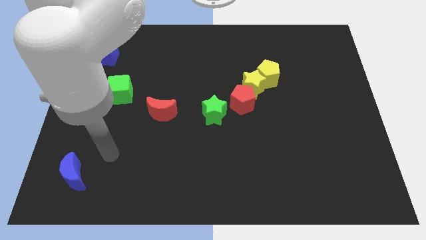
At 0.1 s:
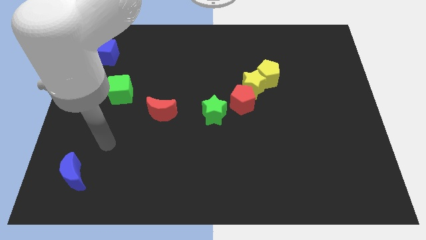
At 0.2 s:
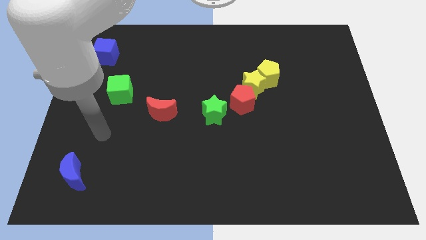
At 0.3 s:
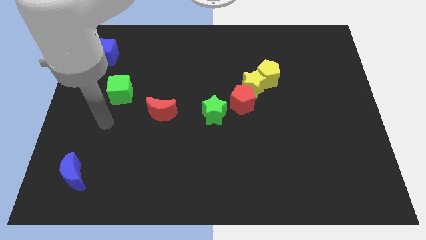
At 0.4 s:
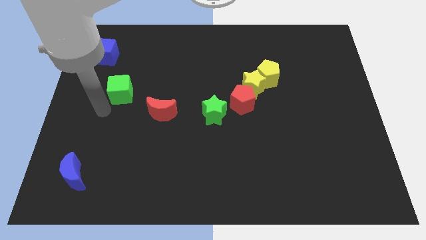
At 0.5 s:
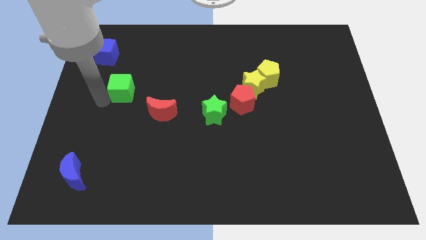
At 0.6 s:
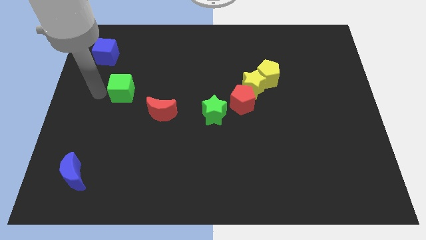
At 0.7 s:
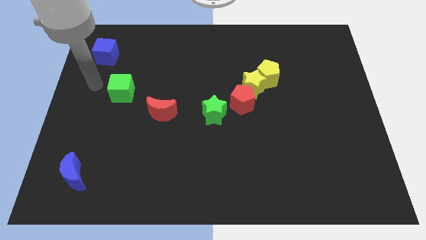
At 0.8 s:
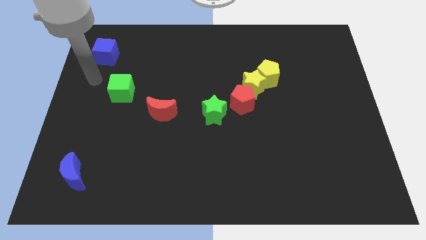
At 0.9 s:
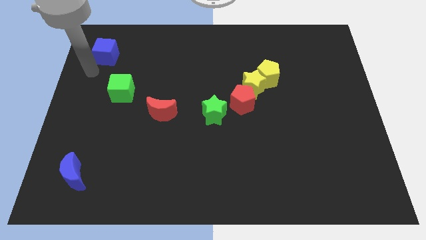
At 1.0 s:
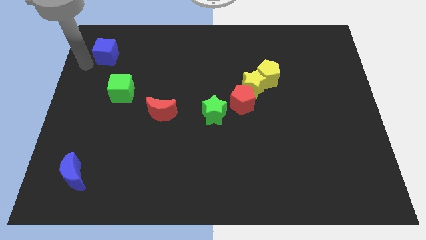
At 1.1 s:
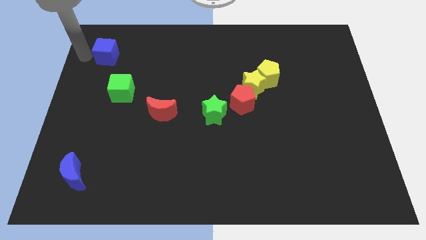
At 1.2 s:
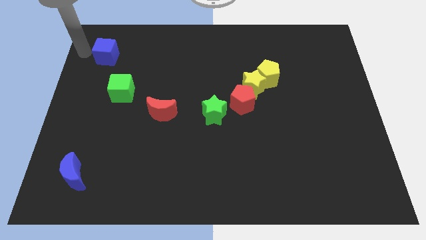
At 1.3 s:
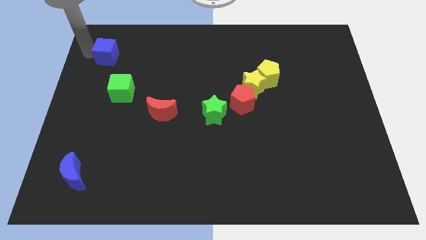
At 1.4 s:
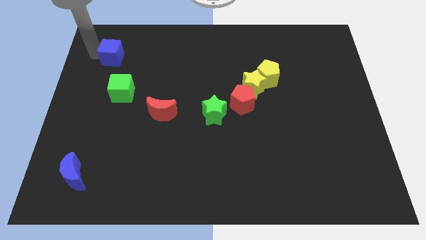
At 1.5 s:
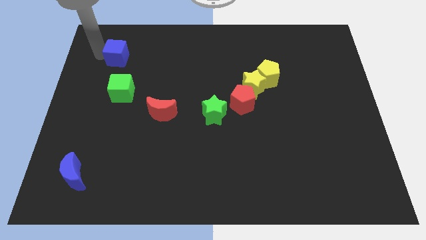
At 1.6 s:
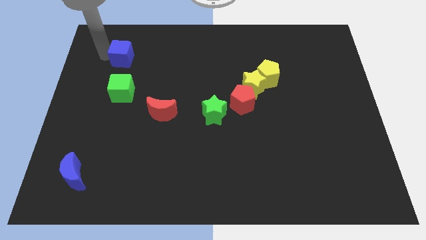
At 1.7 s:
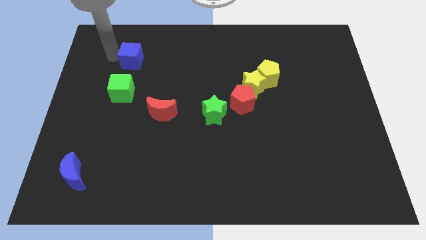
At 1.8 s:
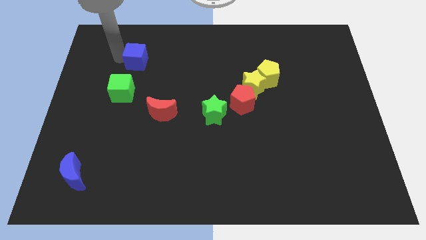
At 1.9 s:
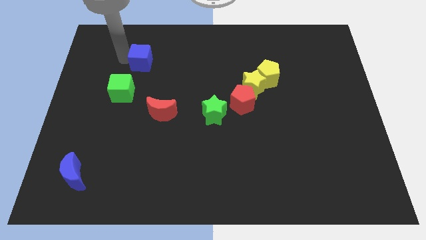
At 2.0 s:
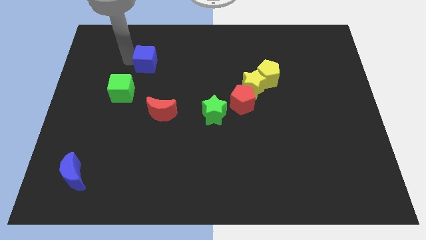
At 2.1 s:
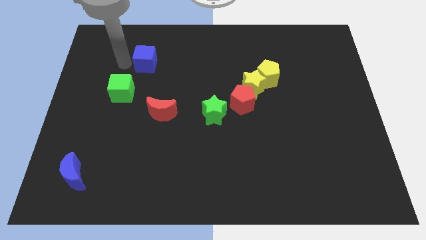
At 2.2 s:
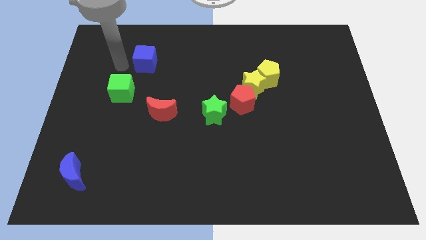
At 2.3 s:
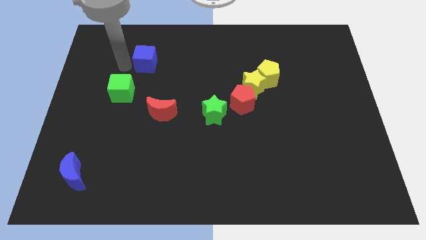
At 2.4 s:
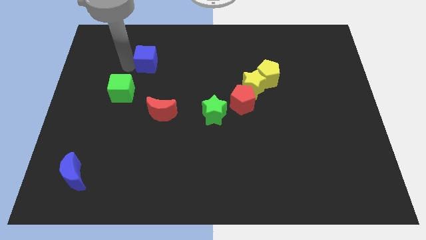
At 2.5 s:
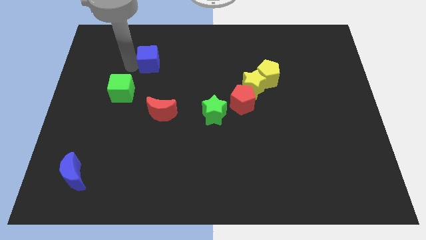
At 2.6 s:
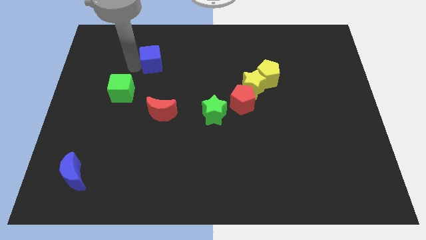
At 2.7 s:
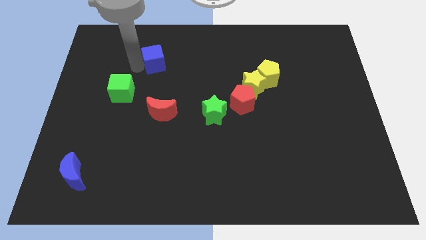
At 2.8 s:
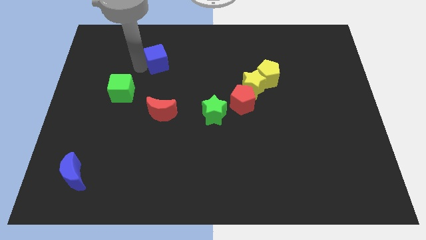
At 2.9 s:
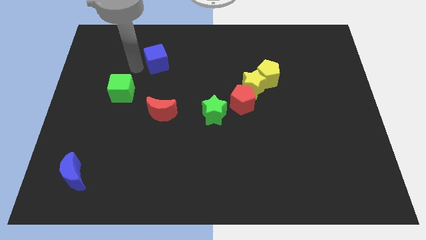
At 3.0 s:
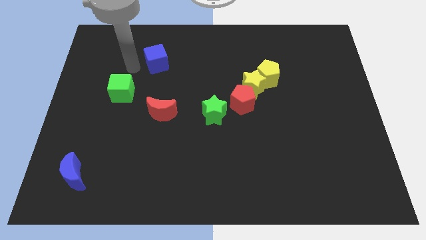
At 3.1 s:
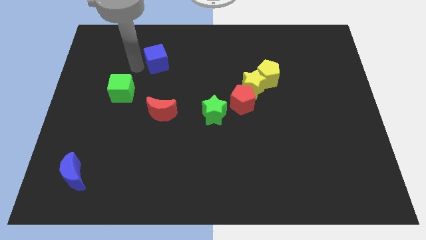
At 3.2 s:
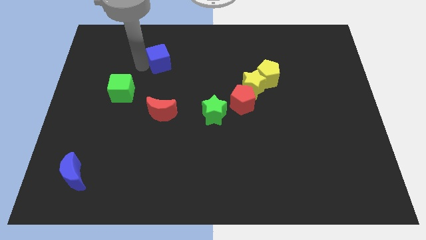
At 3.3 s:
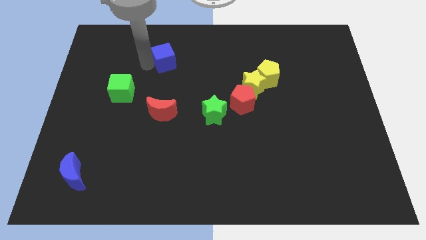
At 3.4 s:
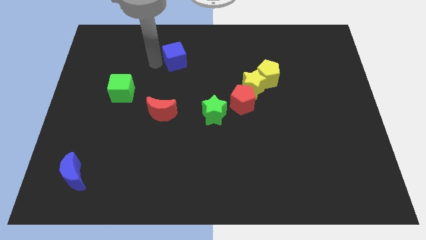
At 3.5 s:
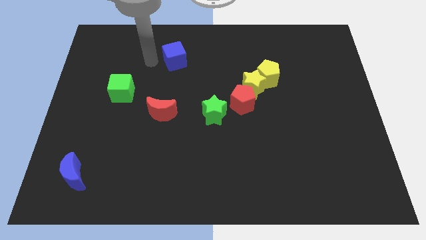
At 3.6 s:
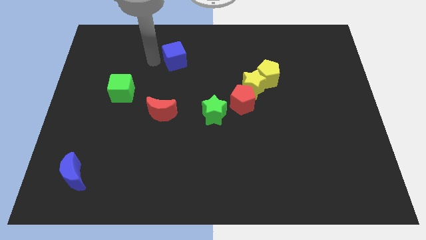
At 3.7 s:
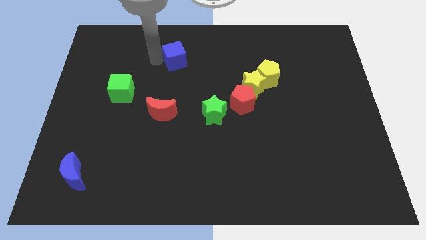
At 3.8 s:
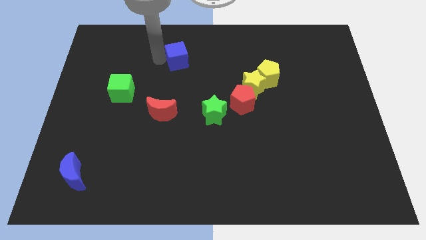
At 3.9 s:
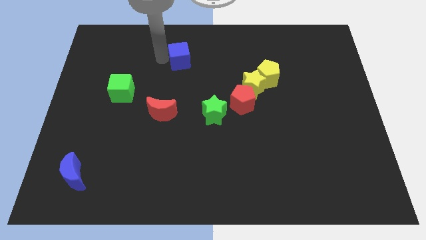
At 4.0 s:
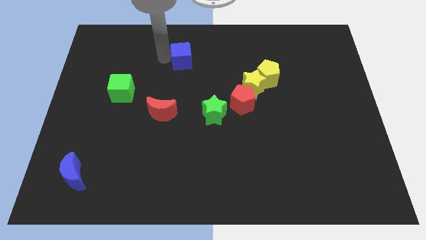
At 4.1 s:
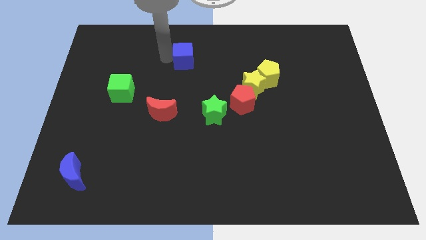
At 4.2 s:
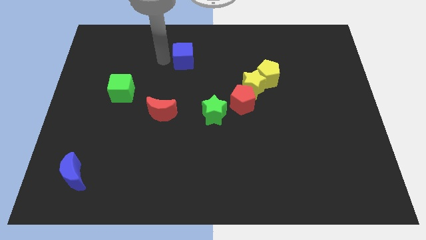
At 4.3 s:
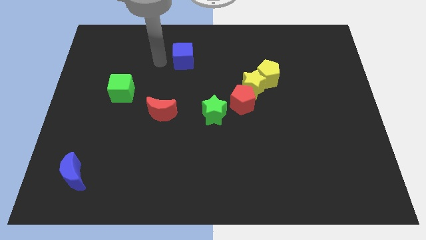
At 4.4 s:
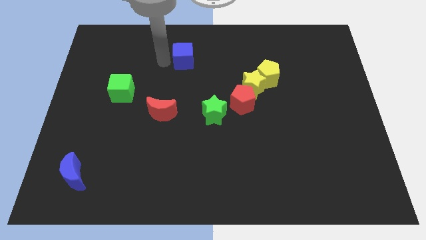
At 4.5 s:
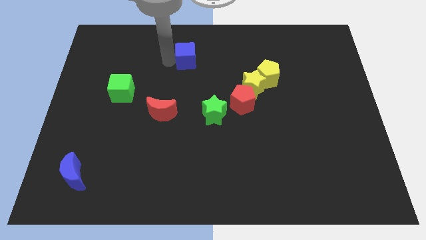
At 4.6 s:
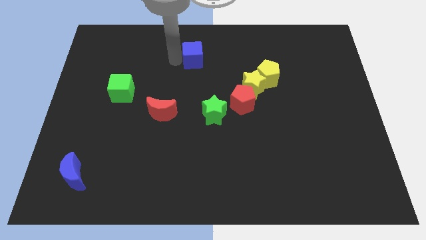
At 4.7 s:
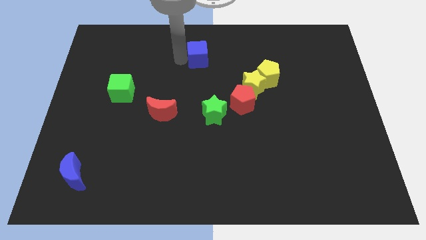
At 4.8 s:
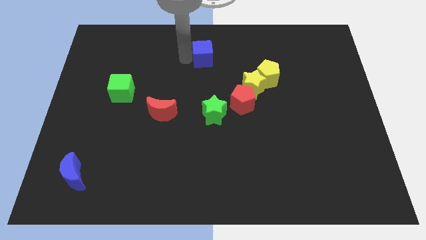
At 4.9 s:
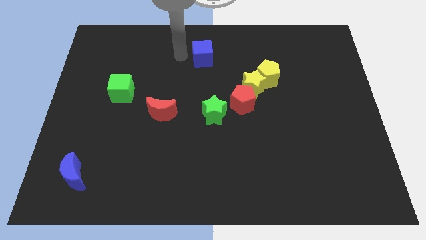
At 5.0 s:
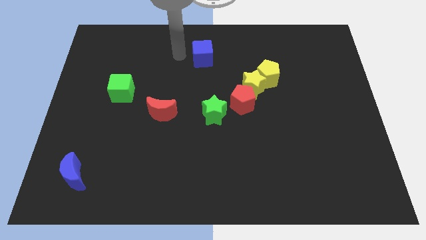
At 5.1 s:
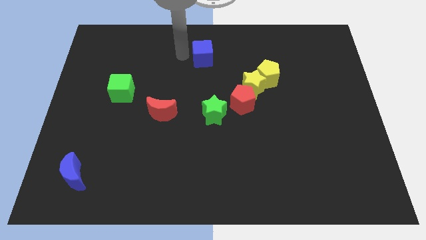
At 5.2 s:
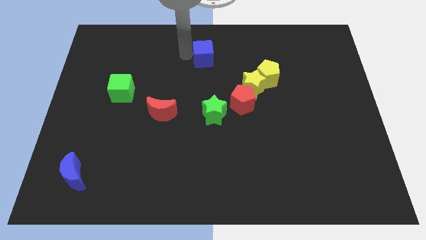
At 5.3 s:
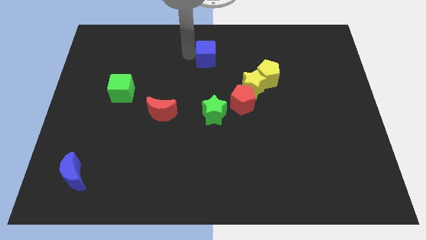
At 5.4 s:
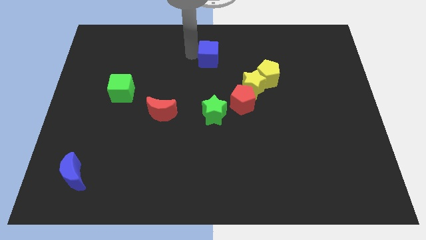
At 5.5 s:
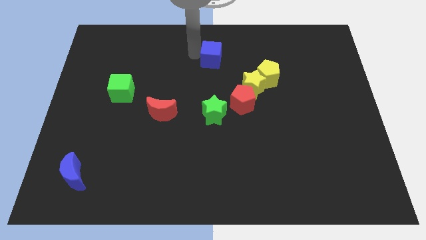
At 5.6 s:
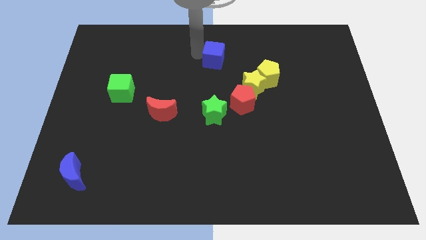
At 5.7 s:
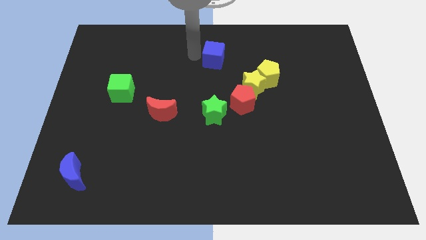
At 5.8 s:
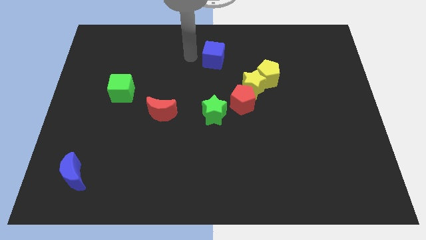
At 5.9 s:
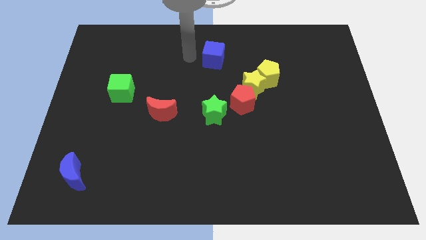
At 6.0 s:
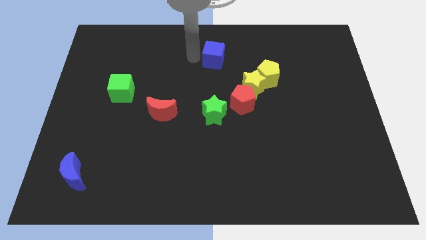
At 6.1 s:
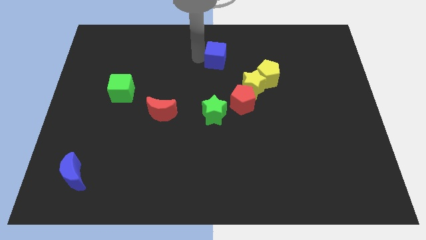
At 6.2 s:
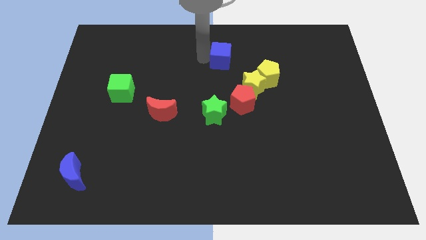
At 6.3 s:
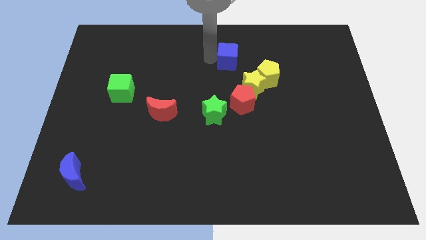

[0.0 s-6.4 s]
move the blue cube to the top left side of the yellow pentagon

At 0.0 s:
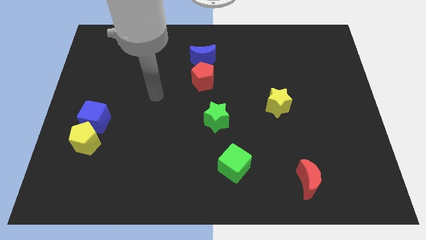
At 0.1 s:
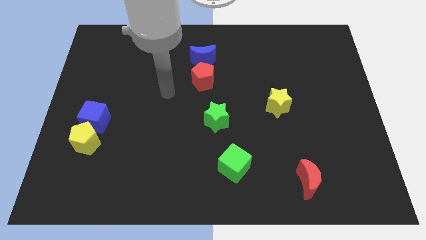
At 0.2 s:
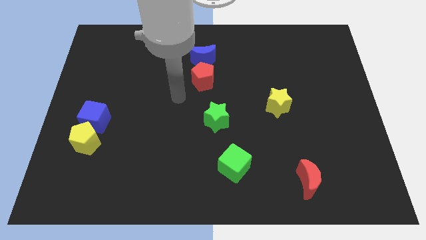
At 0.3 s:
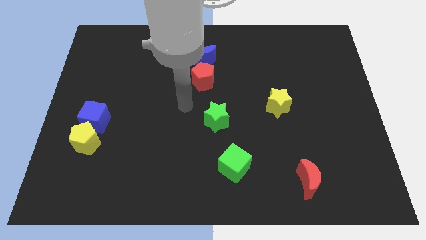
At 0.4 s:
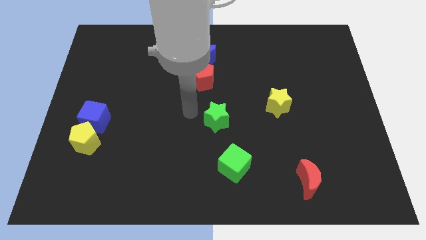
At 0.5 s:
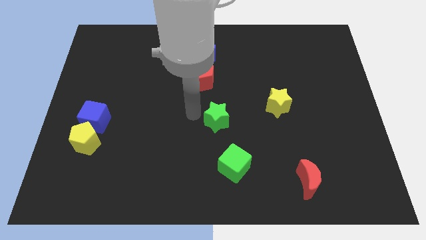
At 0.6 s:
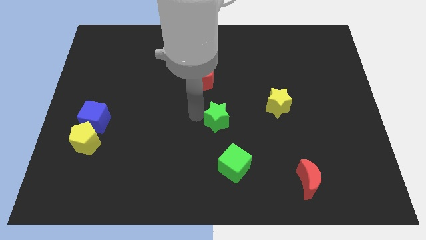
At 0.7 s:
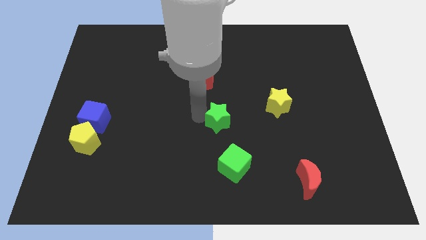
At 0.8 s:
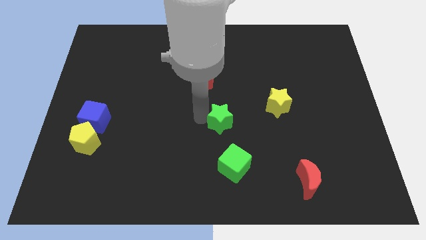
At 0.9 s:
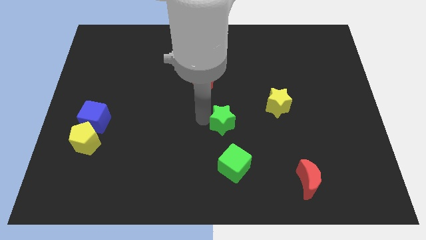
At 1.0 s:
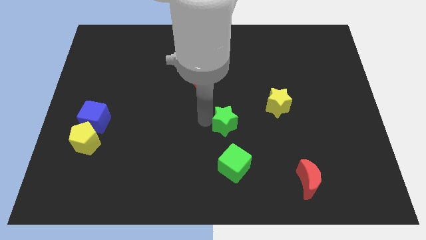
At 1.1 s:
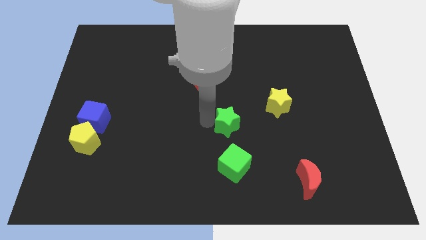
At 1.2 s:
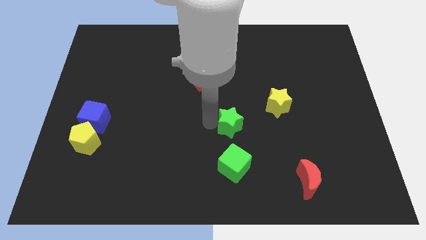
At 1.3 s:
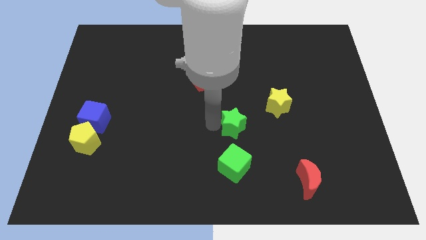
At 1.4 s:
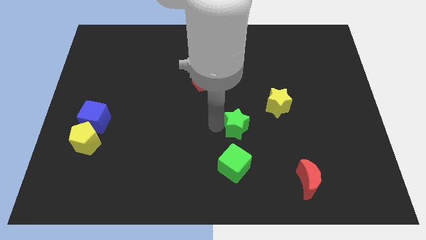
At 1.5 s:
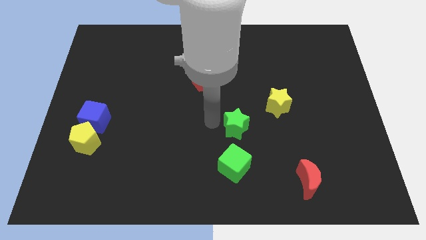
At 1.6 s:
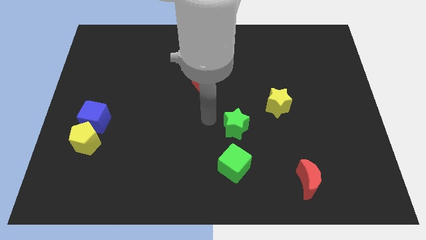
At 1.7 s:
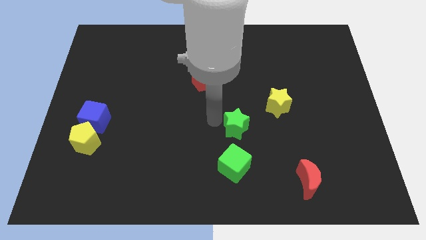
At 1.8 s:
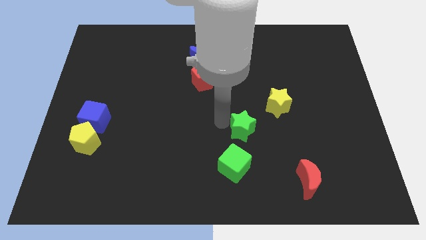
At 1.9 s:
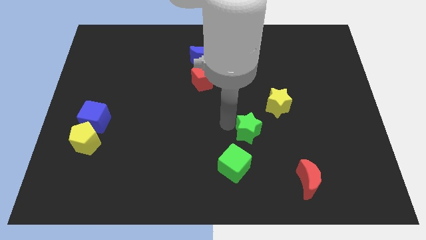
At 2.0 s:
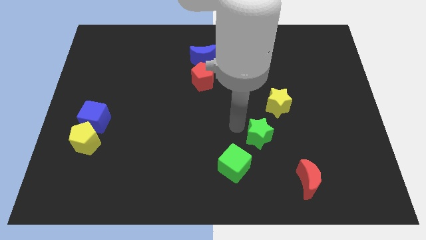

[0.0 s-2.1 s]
push the green star to the bottom of the yellow star
